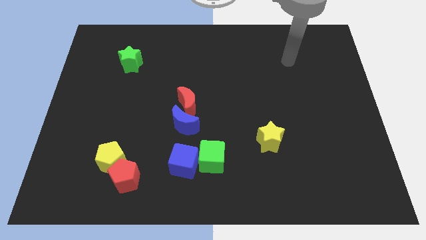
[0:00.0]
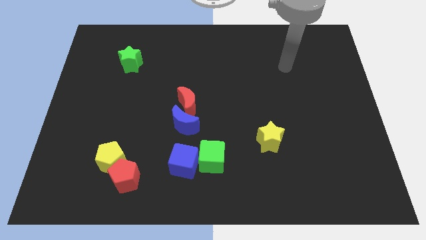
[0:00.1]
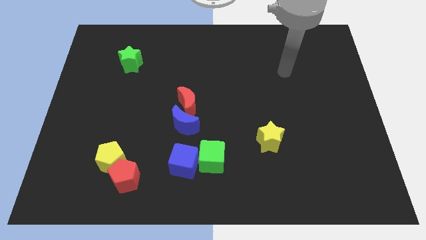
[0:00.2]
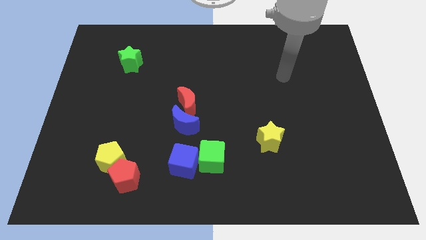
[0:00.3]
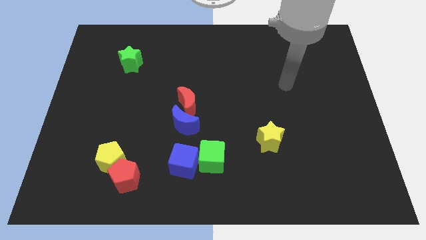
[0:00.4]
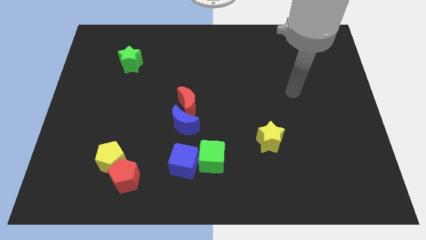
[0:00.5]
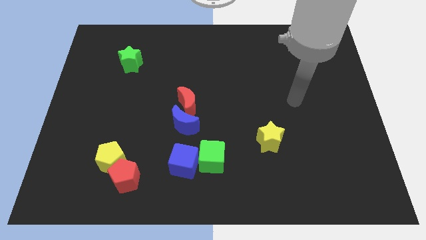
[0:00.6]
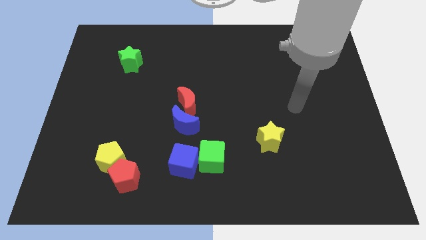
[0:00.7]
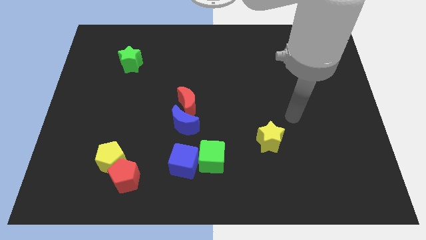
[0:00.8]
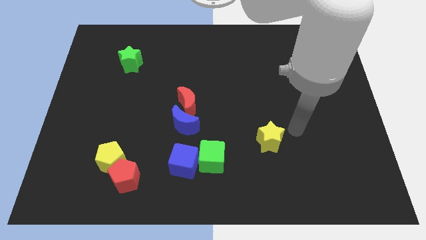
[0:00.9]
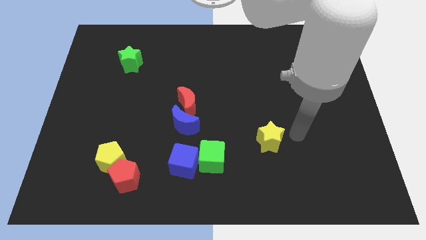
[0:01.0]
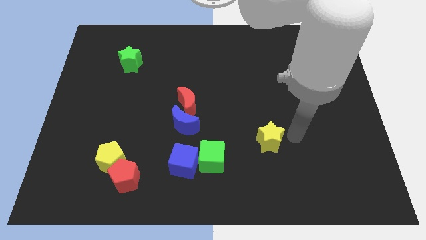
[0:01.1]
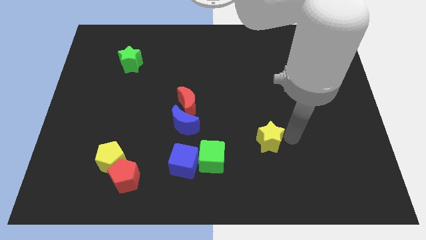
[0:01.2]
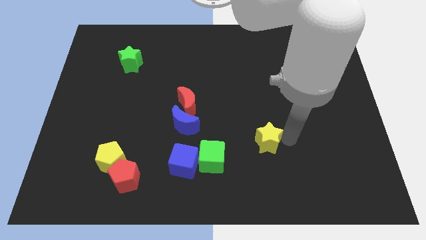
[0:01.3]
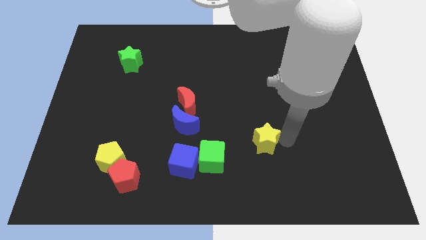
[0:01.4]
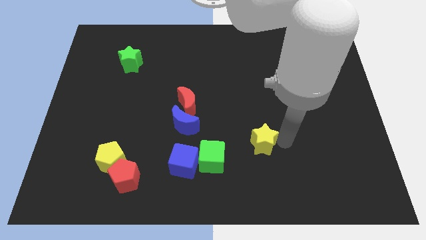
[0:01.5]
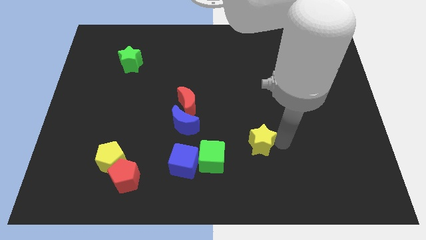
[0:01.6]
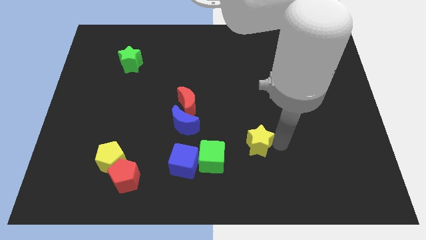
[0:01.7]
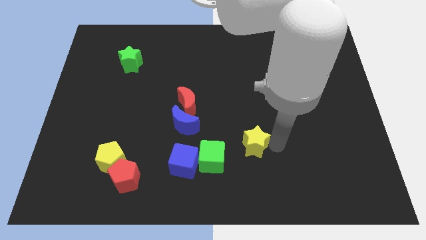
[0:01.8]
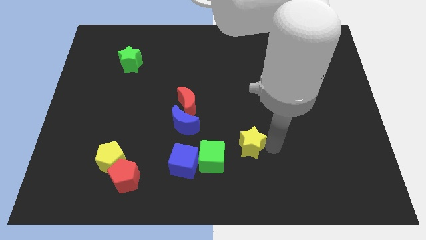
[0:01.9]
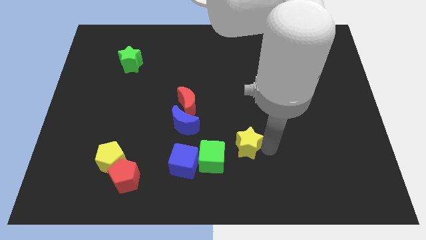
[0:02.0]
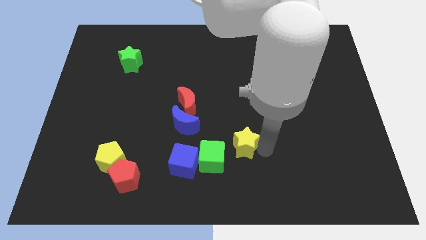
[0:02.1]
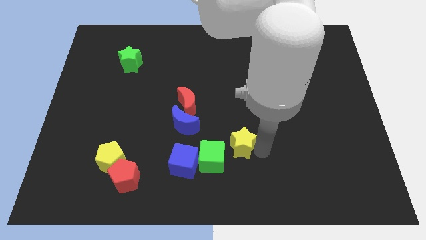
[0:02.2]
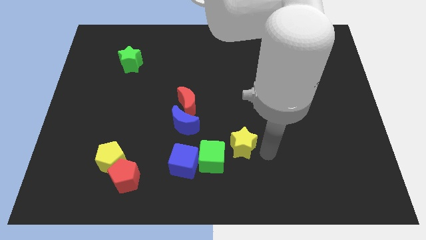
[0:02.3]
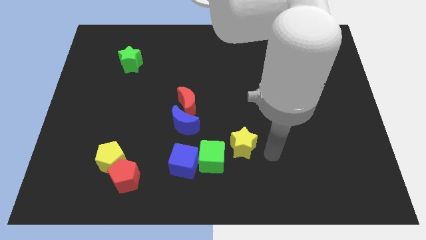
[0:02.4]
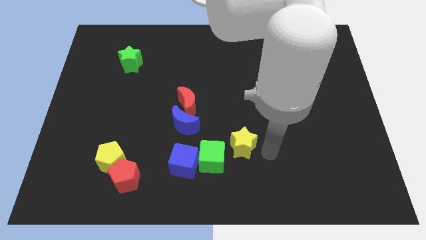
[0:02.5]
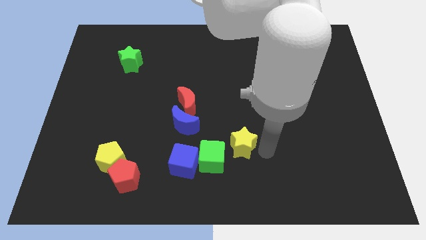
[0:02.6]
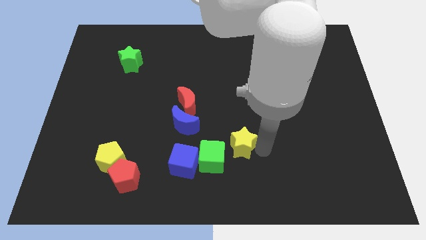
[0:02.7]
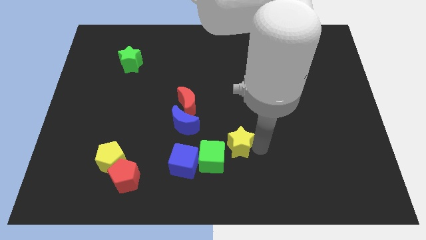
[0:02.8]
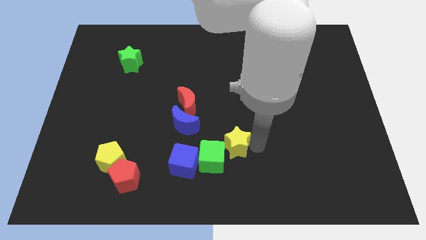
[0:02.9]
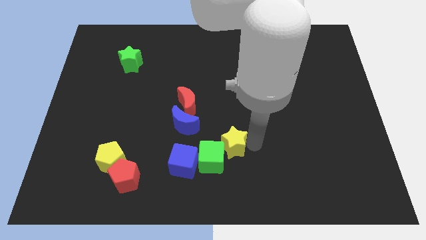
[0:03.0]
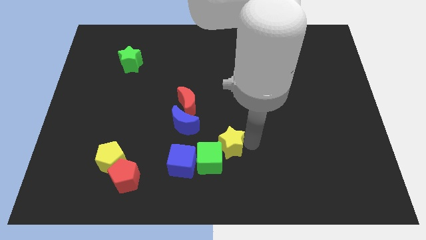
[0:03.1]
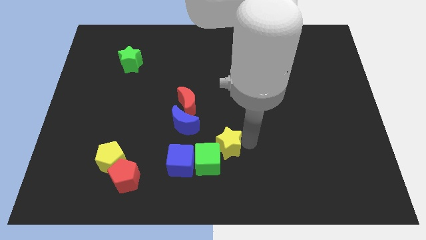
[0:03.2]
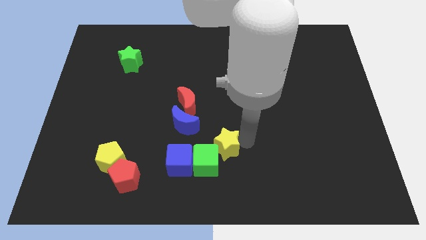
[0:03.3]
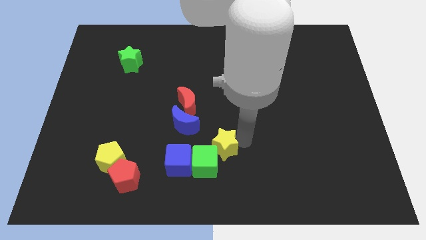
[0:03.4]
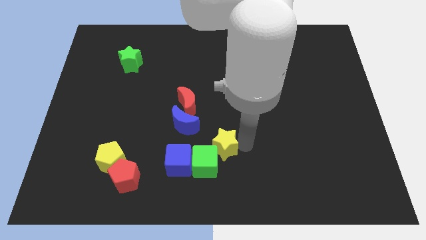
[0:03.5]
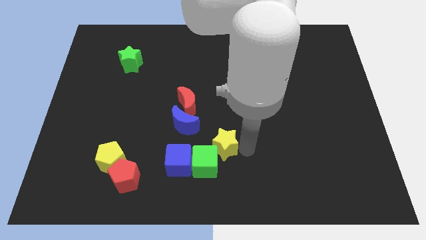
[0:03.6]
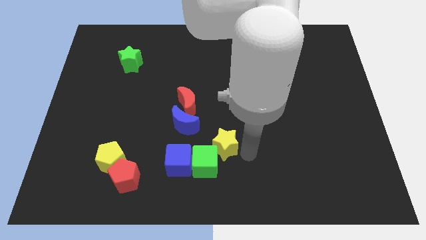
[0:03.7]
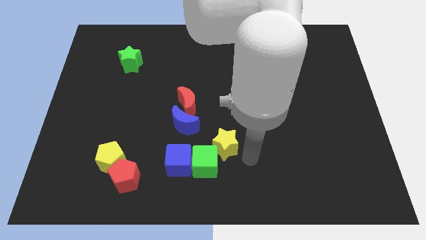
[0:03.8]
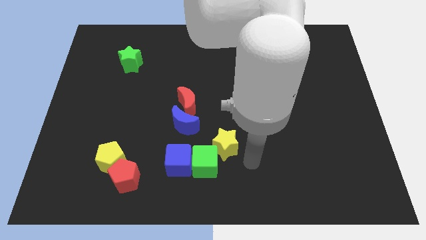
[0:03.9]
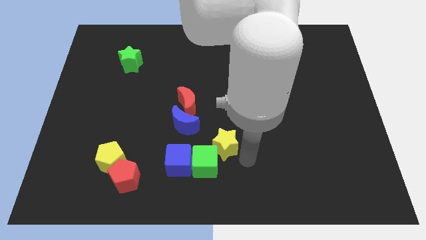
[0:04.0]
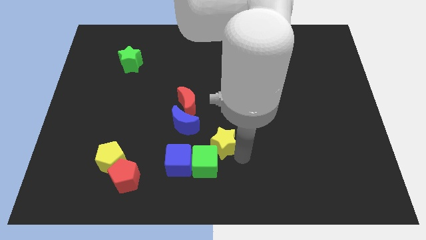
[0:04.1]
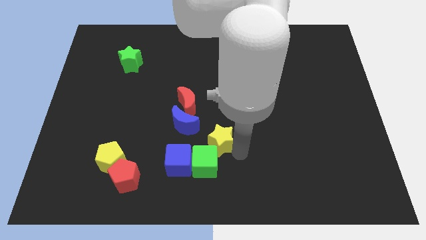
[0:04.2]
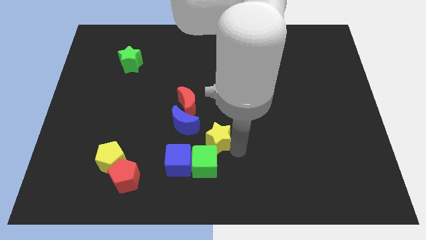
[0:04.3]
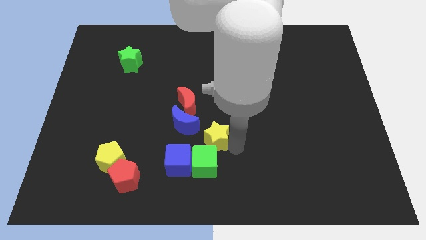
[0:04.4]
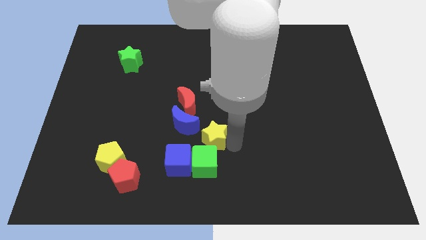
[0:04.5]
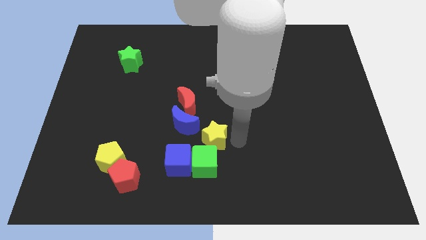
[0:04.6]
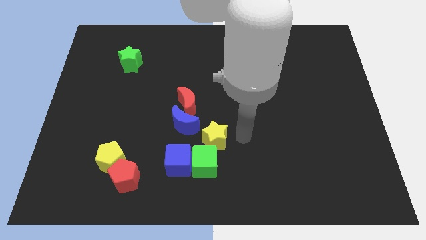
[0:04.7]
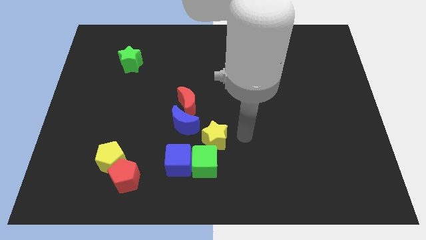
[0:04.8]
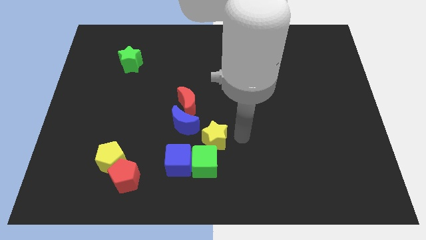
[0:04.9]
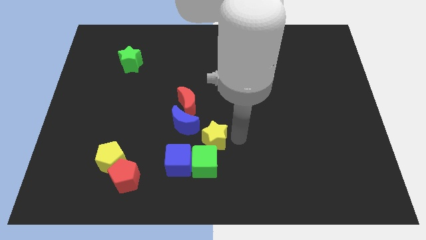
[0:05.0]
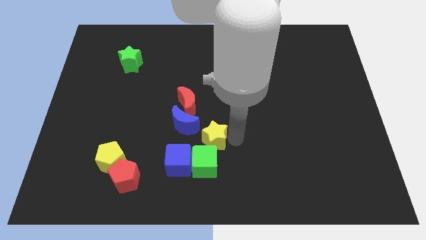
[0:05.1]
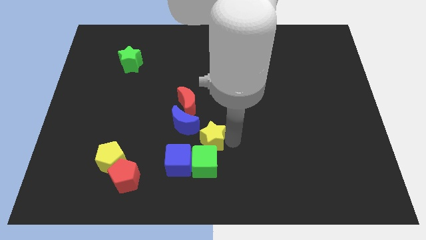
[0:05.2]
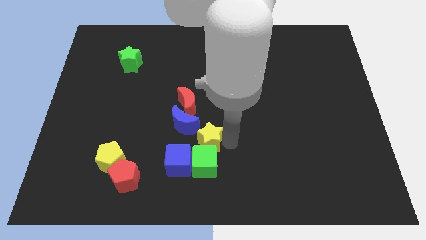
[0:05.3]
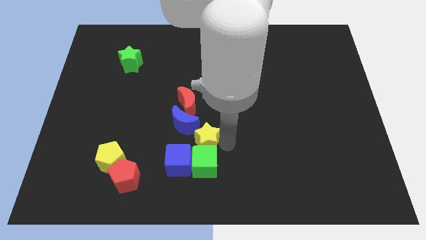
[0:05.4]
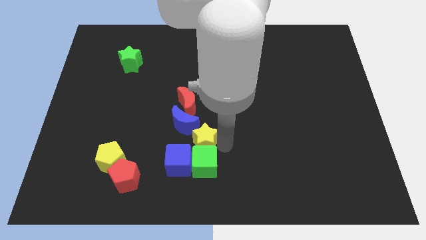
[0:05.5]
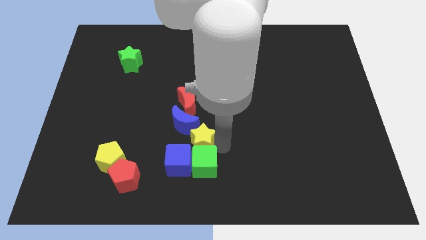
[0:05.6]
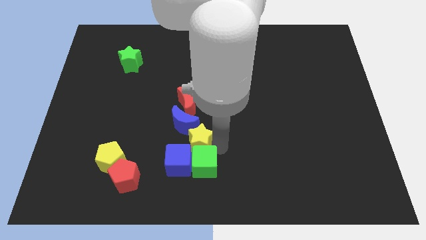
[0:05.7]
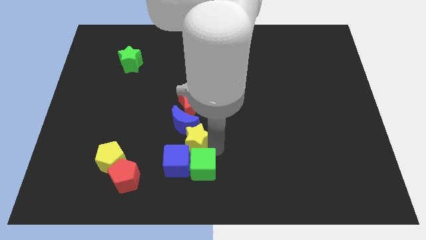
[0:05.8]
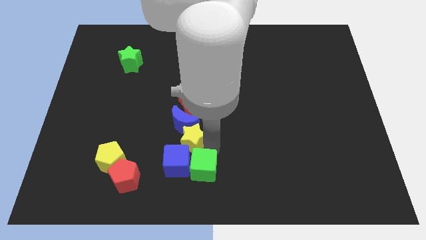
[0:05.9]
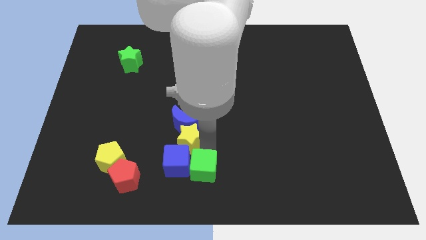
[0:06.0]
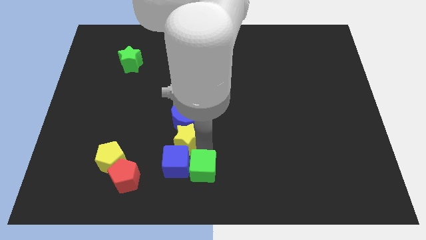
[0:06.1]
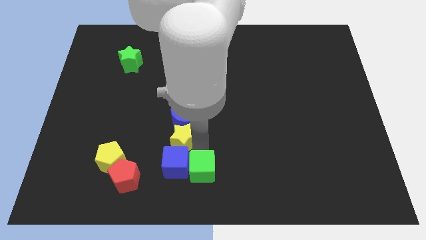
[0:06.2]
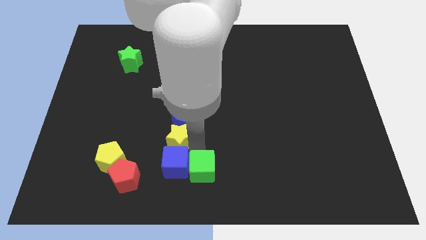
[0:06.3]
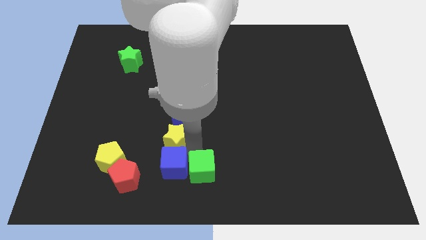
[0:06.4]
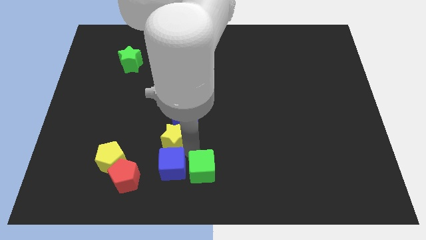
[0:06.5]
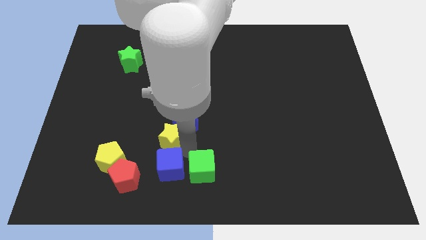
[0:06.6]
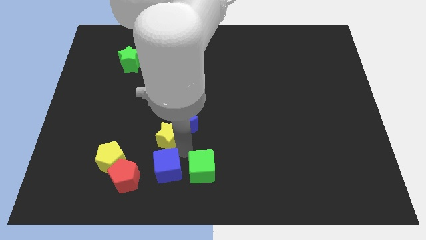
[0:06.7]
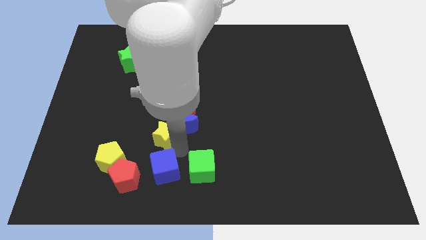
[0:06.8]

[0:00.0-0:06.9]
put the yellow star left of the blue moon
